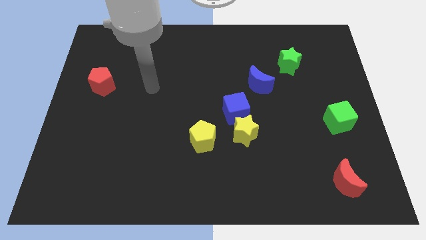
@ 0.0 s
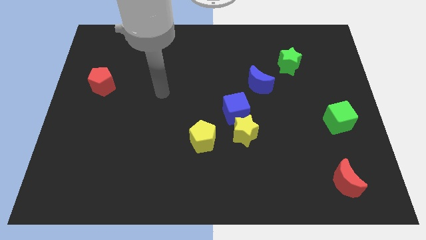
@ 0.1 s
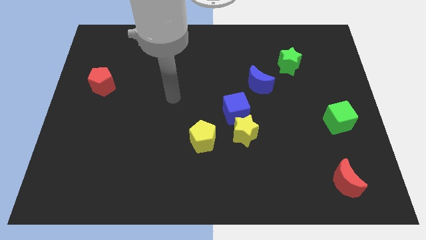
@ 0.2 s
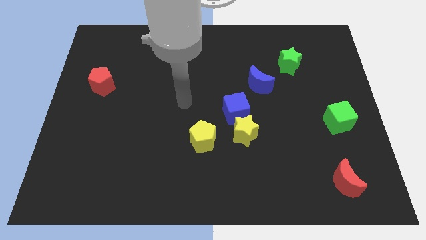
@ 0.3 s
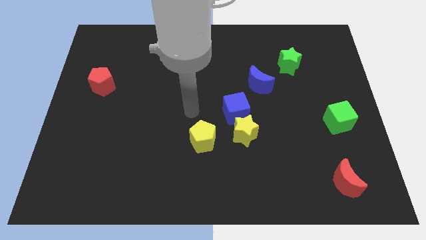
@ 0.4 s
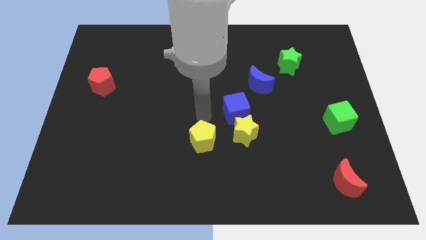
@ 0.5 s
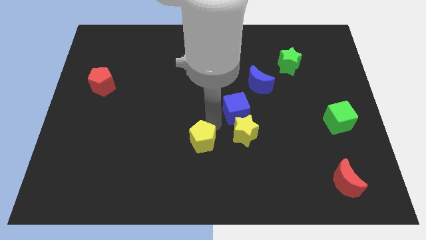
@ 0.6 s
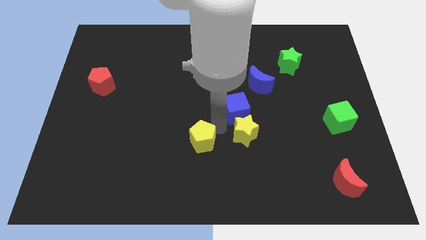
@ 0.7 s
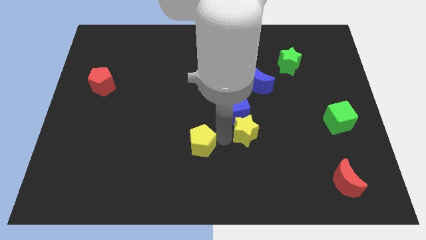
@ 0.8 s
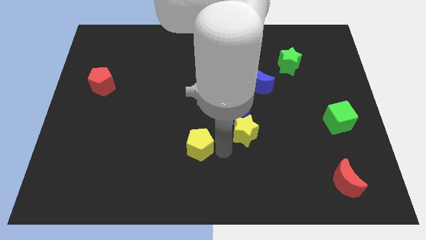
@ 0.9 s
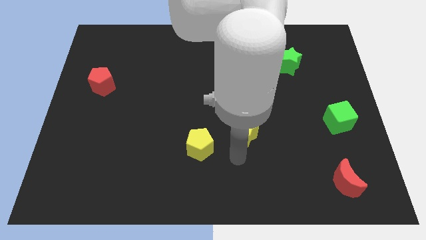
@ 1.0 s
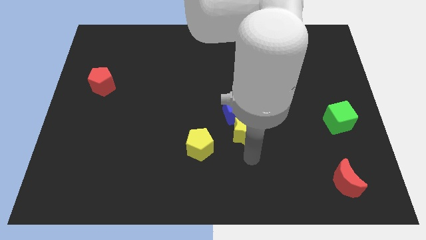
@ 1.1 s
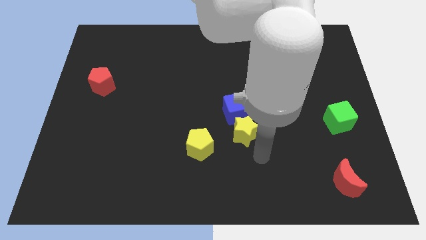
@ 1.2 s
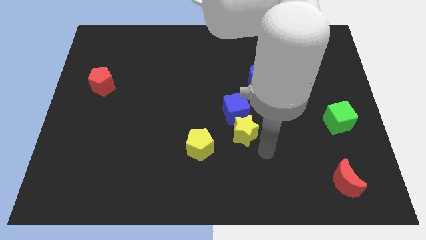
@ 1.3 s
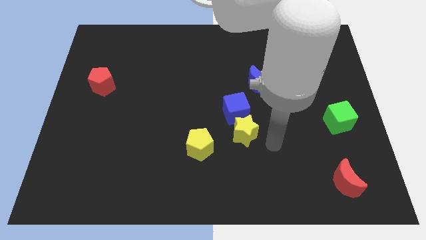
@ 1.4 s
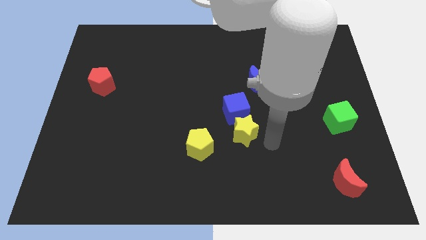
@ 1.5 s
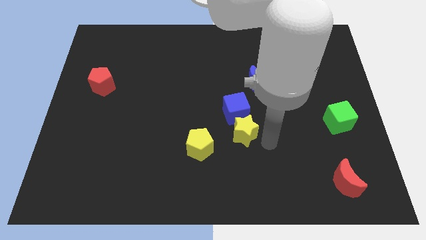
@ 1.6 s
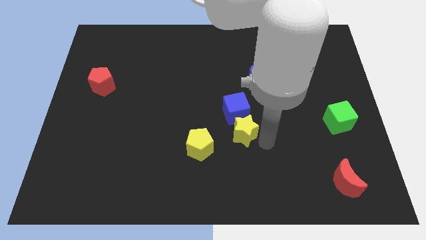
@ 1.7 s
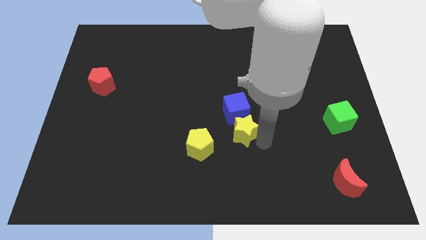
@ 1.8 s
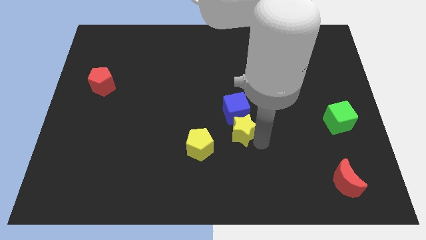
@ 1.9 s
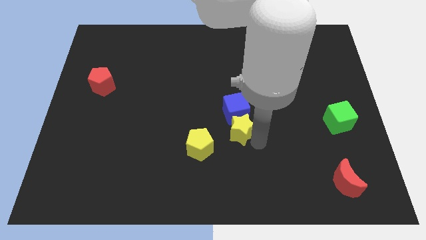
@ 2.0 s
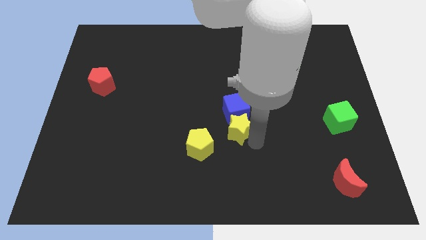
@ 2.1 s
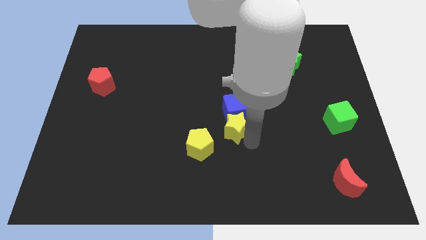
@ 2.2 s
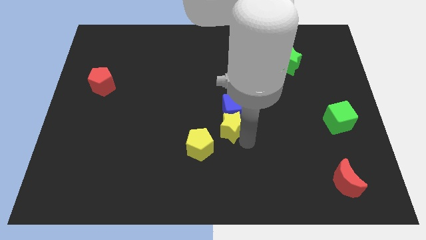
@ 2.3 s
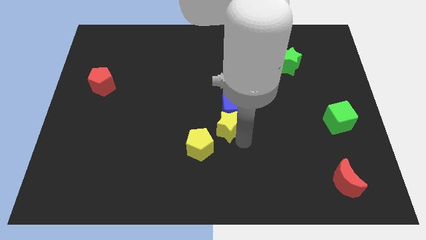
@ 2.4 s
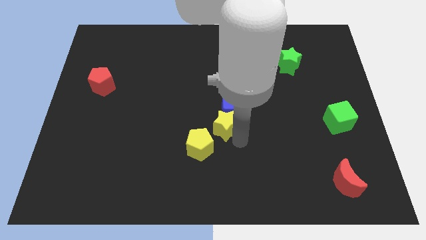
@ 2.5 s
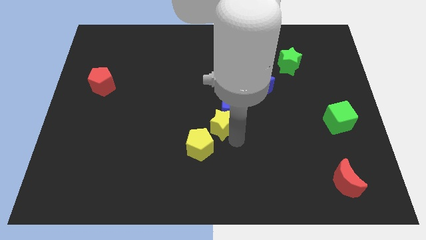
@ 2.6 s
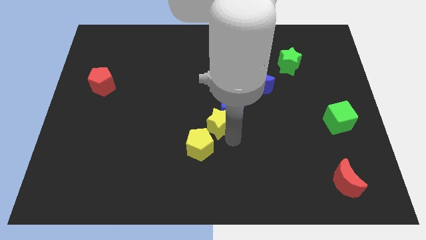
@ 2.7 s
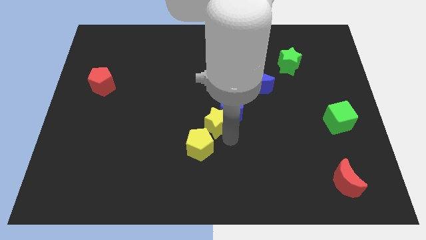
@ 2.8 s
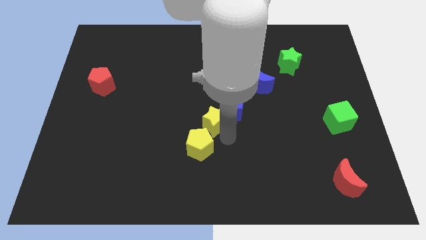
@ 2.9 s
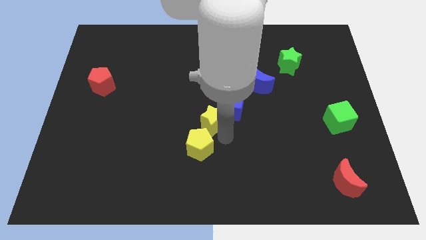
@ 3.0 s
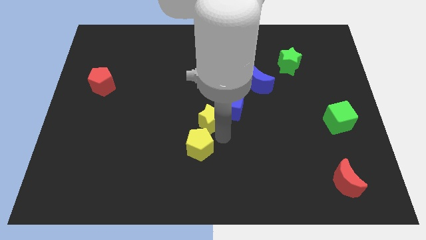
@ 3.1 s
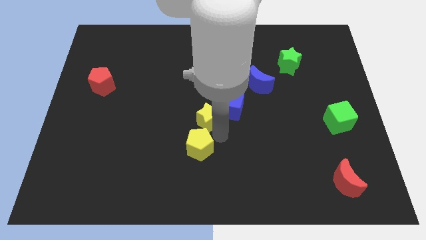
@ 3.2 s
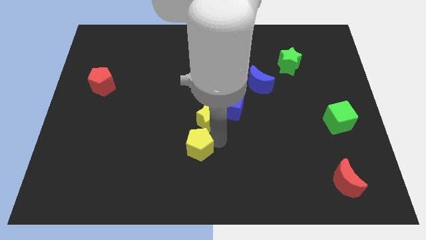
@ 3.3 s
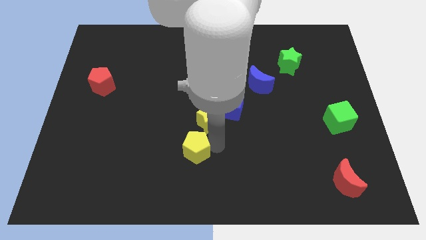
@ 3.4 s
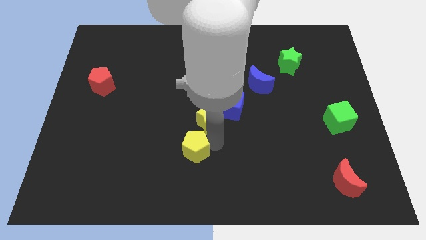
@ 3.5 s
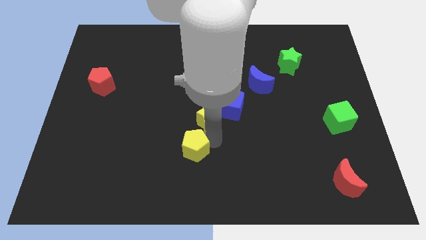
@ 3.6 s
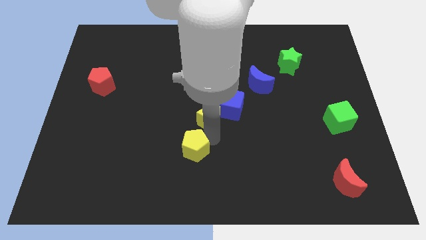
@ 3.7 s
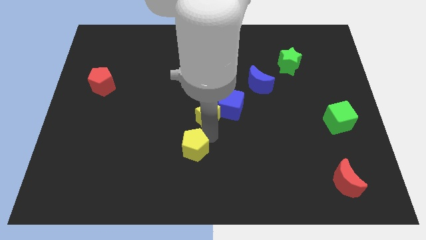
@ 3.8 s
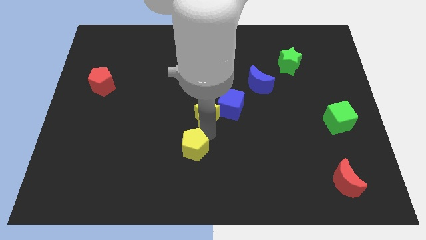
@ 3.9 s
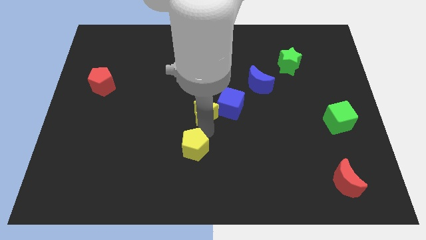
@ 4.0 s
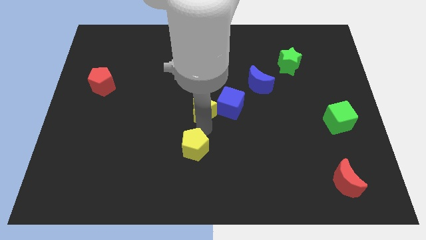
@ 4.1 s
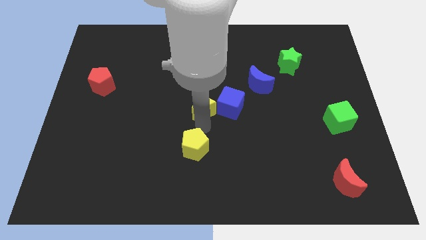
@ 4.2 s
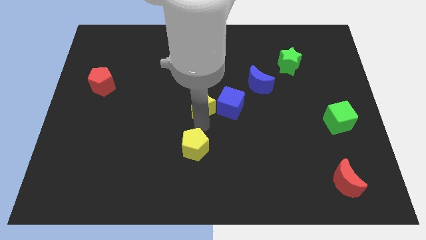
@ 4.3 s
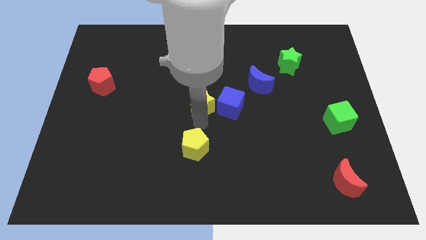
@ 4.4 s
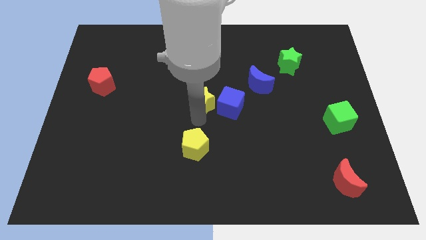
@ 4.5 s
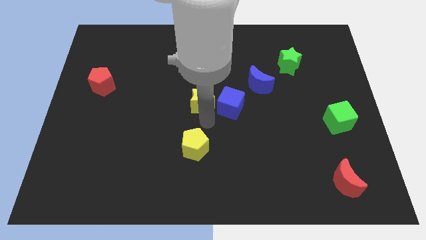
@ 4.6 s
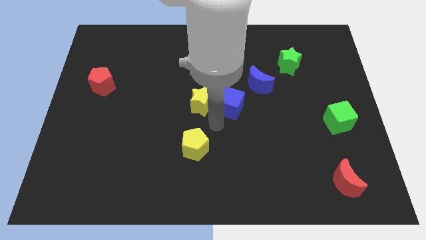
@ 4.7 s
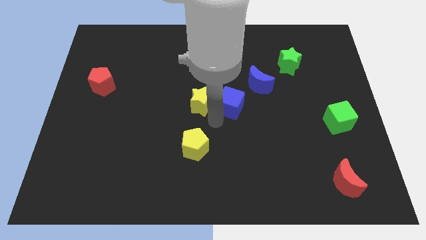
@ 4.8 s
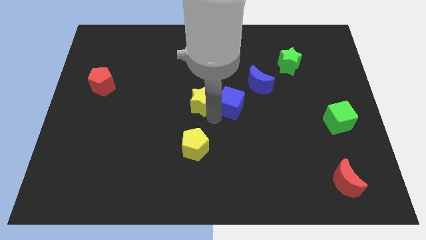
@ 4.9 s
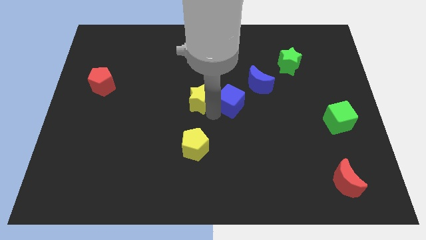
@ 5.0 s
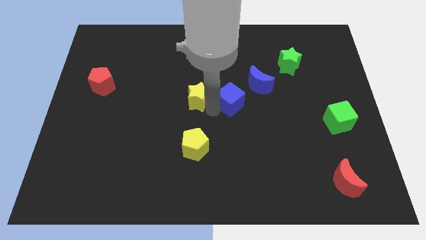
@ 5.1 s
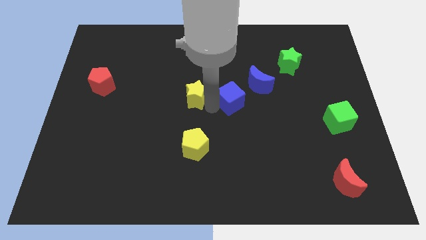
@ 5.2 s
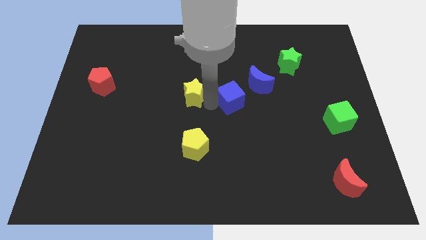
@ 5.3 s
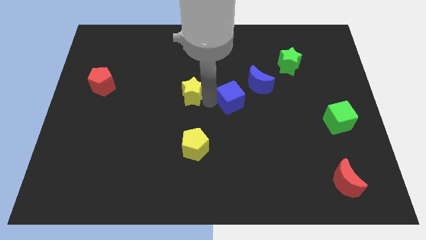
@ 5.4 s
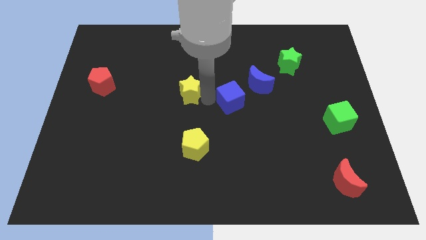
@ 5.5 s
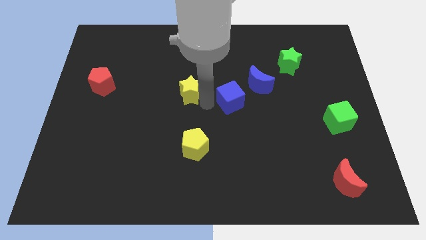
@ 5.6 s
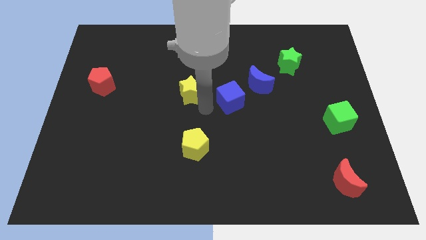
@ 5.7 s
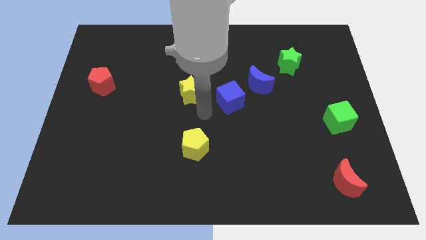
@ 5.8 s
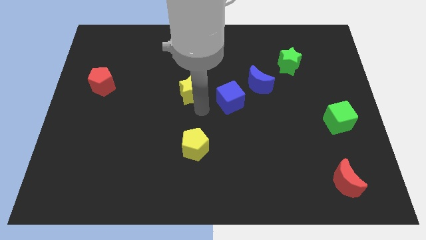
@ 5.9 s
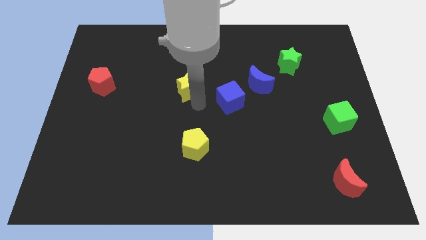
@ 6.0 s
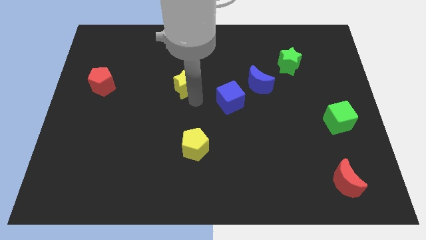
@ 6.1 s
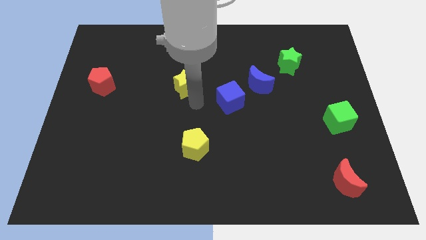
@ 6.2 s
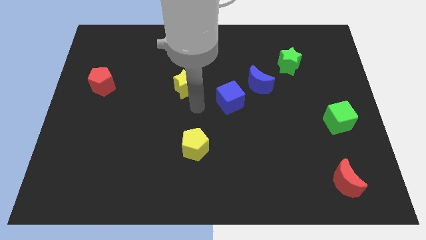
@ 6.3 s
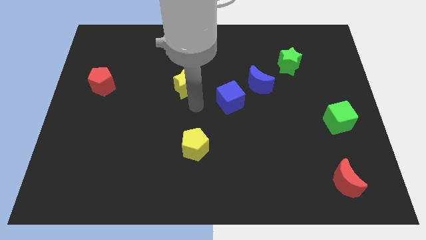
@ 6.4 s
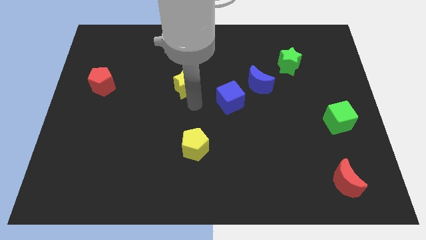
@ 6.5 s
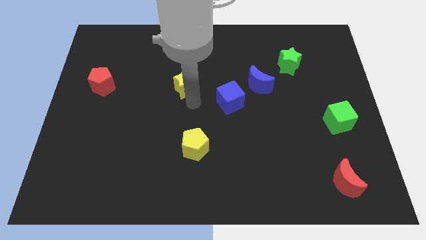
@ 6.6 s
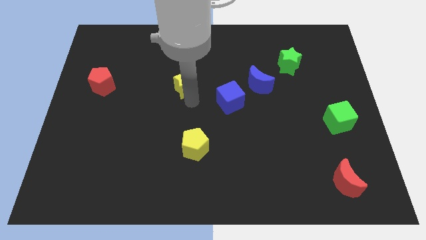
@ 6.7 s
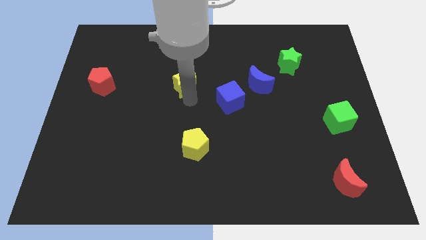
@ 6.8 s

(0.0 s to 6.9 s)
move the yellow star up and left diagonally

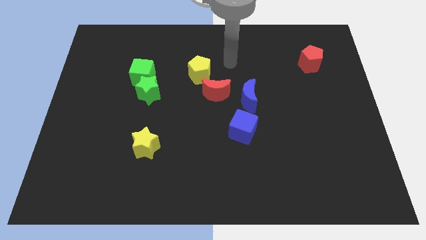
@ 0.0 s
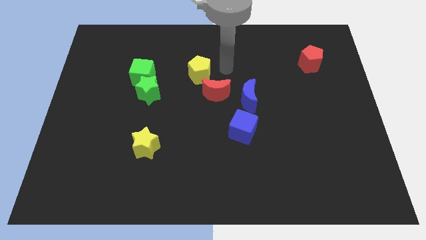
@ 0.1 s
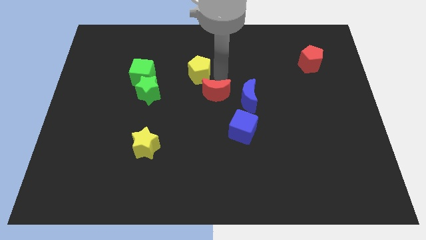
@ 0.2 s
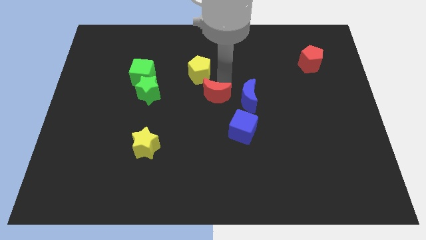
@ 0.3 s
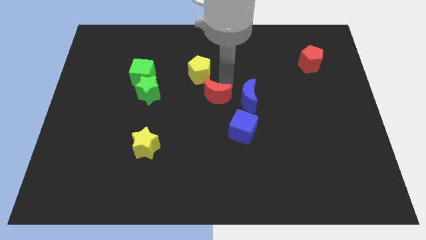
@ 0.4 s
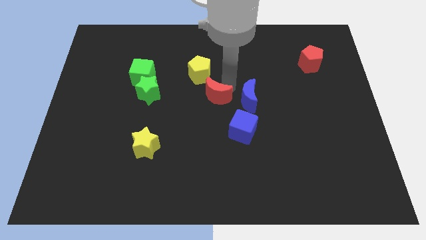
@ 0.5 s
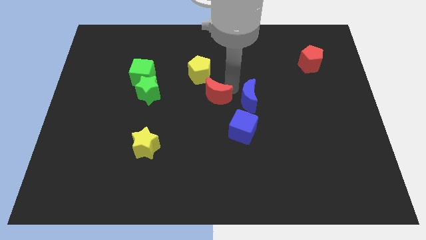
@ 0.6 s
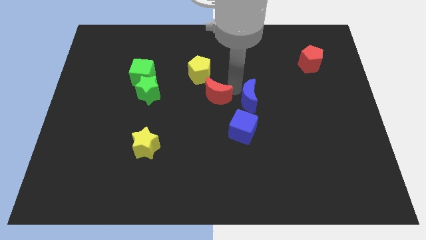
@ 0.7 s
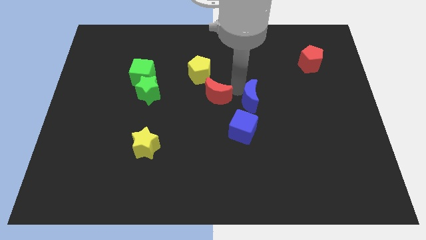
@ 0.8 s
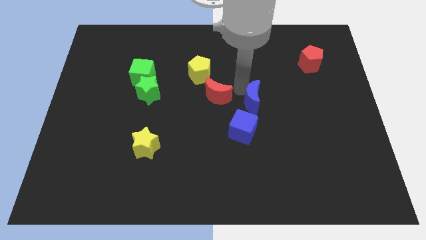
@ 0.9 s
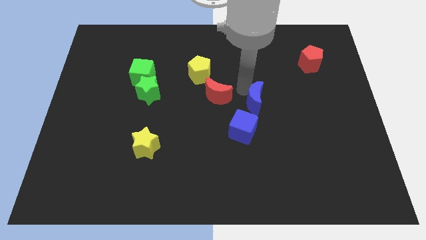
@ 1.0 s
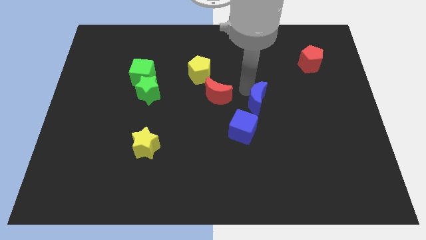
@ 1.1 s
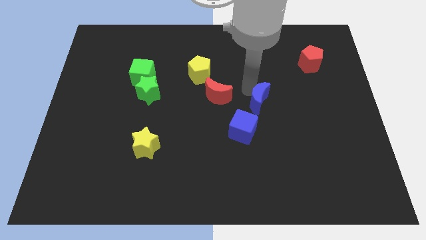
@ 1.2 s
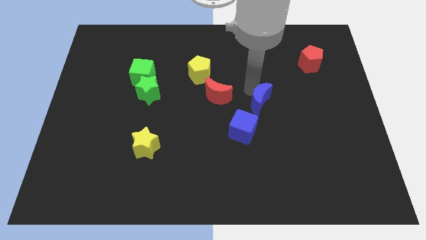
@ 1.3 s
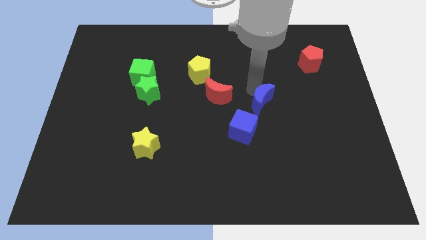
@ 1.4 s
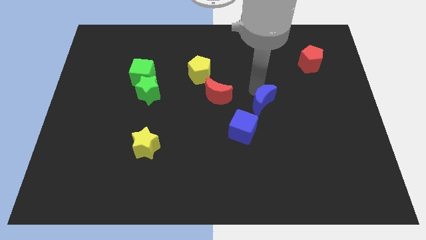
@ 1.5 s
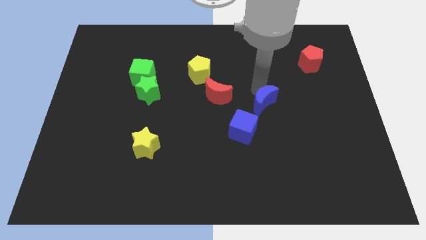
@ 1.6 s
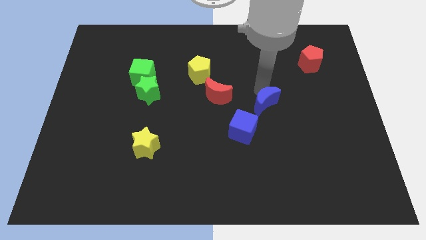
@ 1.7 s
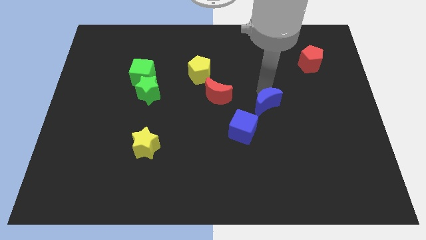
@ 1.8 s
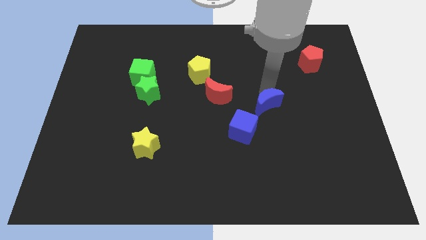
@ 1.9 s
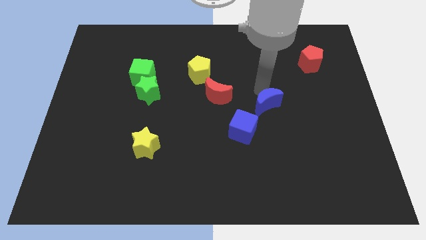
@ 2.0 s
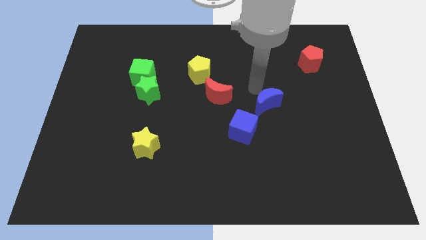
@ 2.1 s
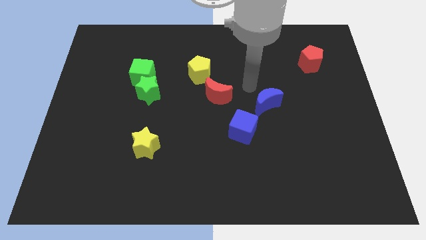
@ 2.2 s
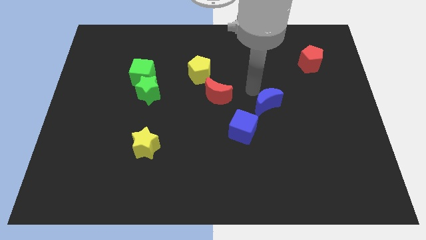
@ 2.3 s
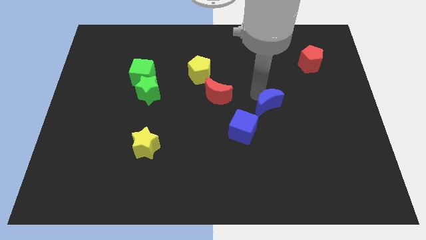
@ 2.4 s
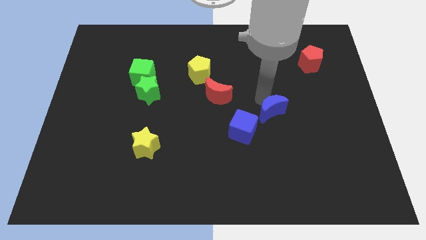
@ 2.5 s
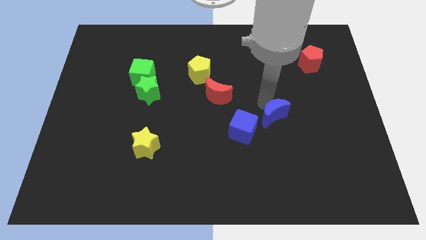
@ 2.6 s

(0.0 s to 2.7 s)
slightly push the blue moon diagonally downwards and to the right
